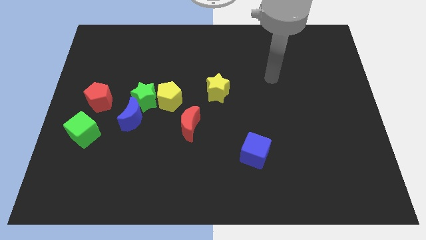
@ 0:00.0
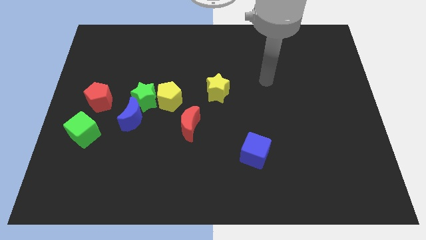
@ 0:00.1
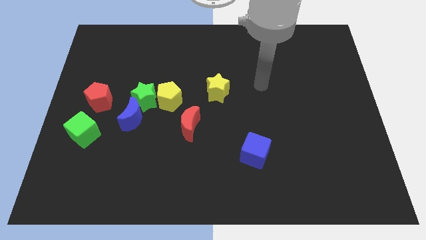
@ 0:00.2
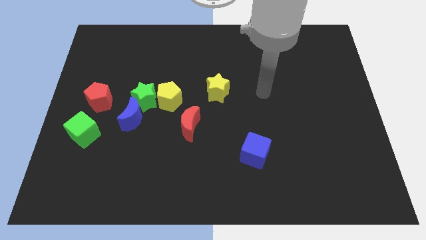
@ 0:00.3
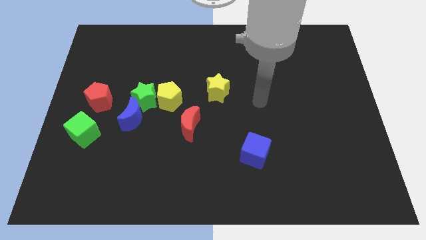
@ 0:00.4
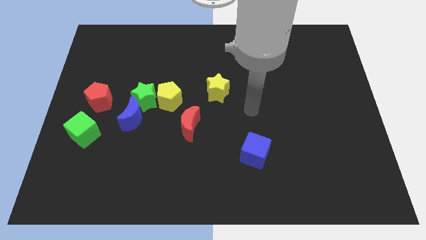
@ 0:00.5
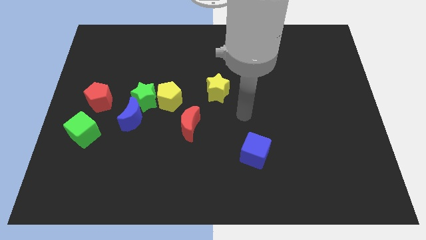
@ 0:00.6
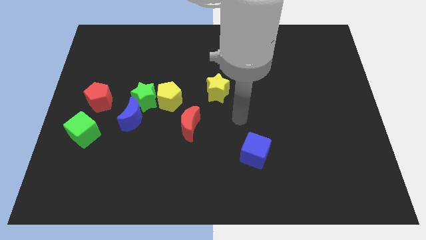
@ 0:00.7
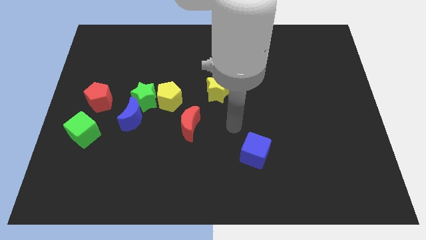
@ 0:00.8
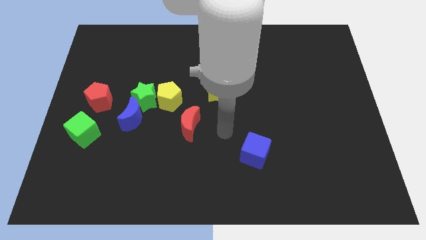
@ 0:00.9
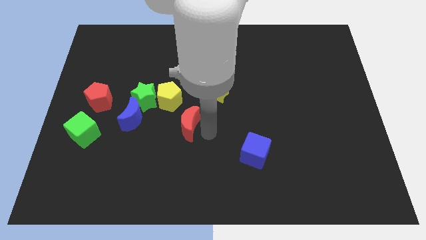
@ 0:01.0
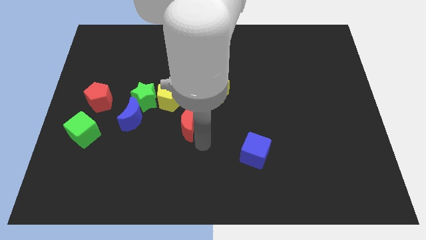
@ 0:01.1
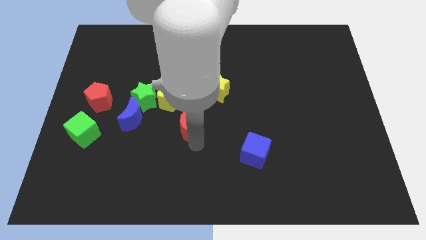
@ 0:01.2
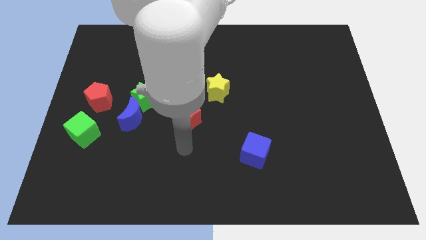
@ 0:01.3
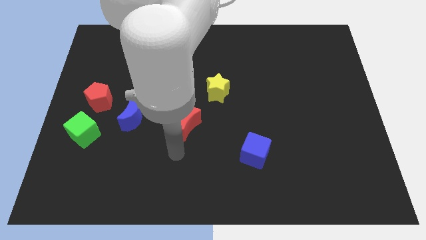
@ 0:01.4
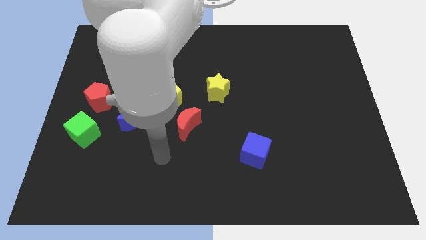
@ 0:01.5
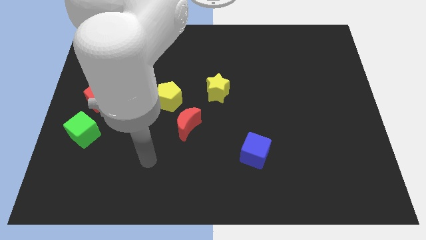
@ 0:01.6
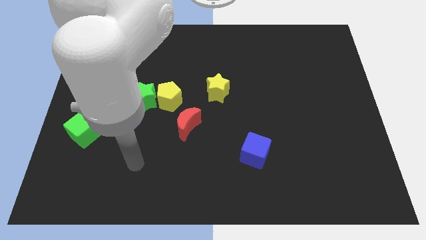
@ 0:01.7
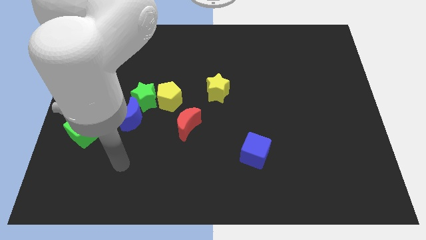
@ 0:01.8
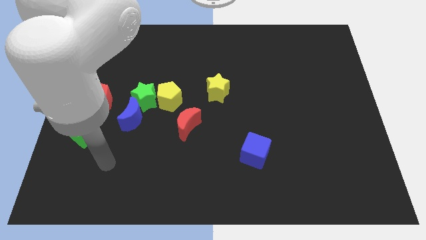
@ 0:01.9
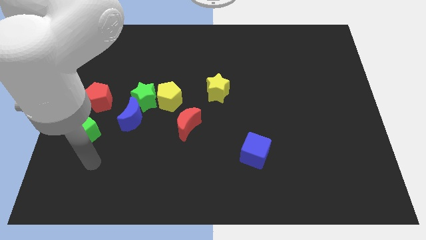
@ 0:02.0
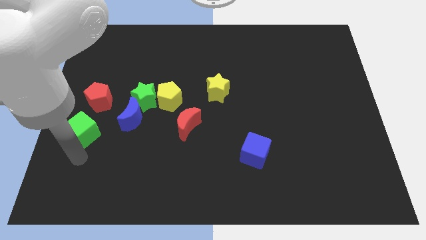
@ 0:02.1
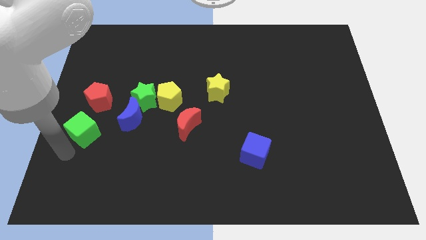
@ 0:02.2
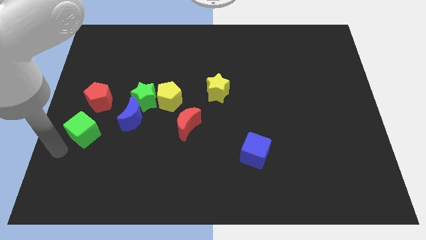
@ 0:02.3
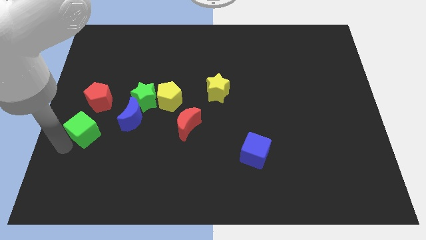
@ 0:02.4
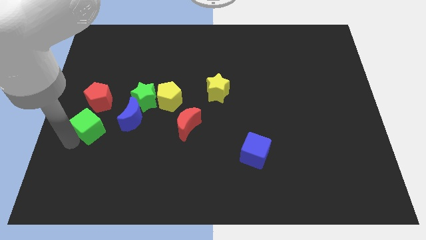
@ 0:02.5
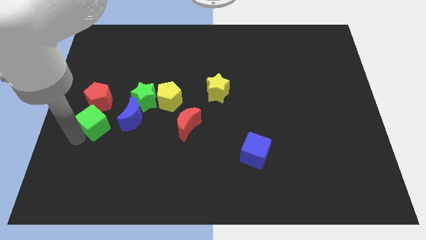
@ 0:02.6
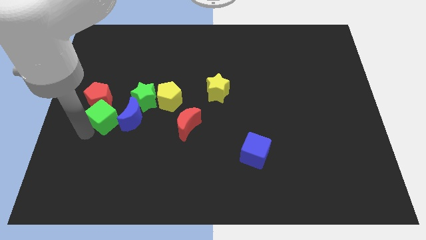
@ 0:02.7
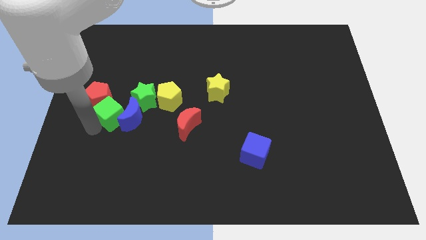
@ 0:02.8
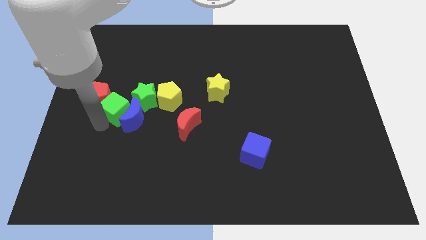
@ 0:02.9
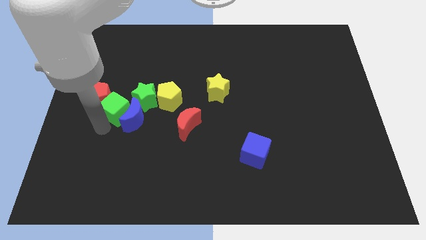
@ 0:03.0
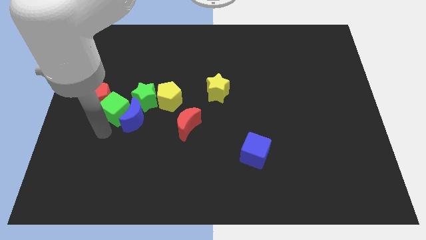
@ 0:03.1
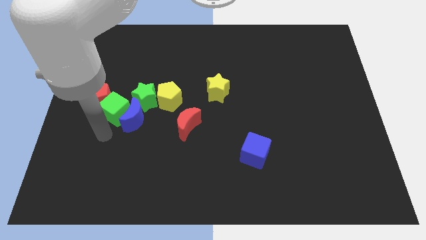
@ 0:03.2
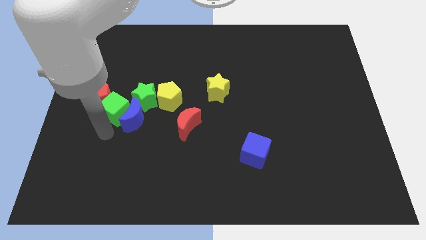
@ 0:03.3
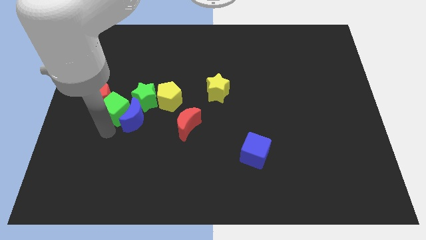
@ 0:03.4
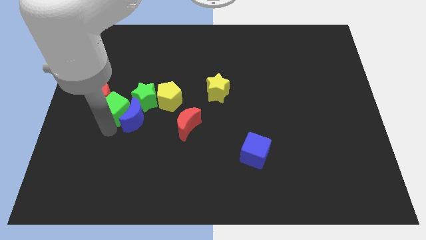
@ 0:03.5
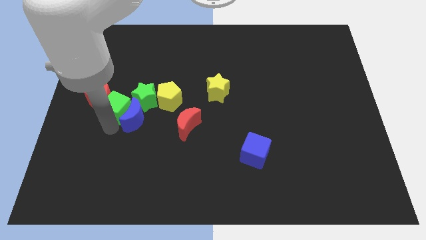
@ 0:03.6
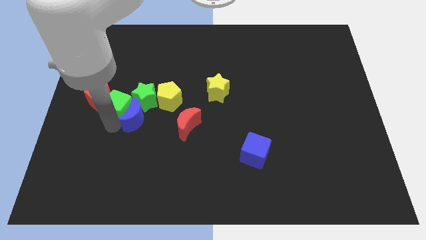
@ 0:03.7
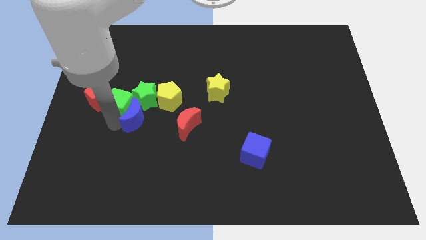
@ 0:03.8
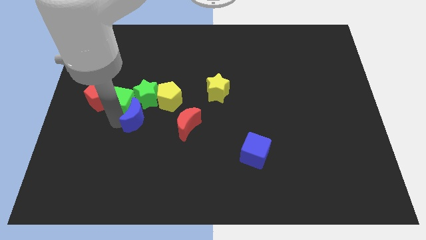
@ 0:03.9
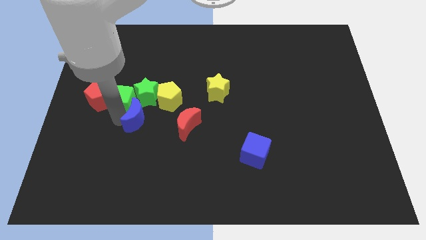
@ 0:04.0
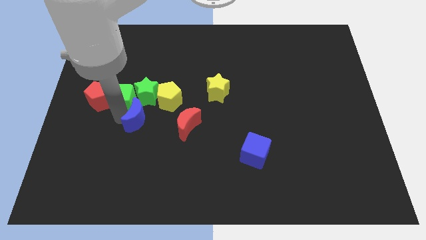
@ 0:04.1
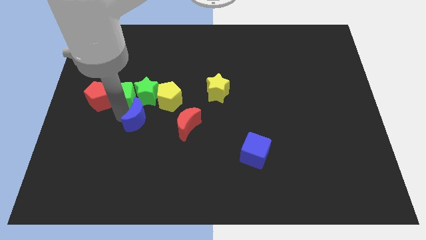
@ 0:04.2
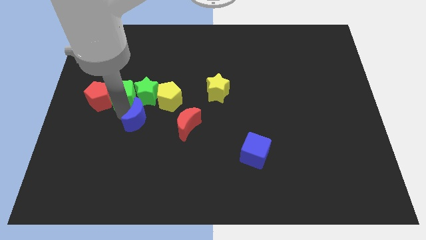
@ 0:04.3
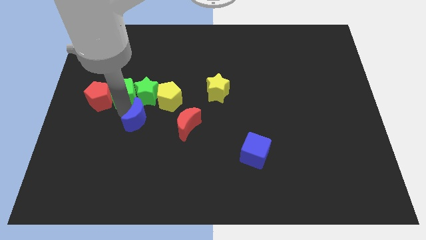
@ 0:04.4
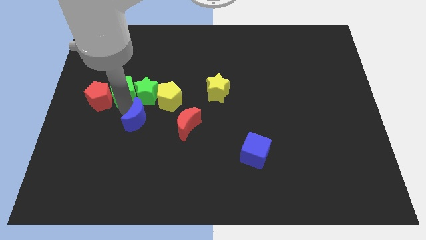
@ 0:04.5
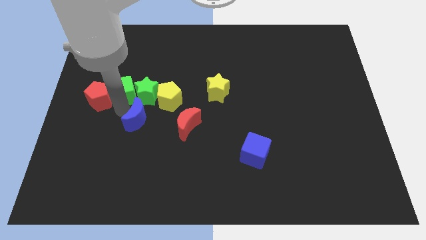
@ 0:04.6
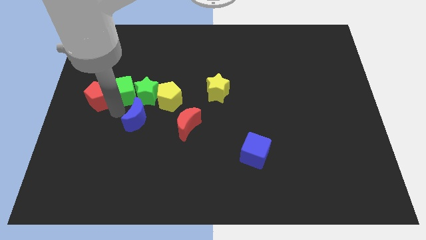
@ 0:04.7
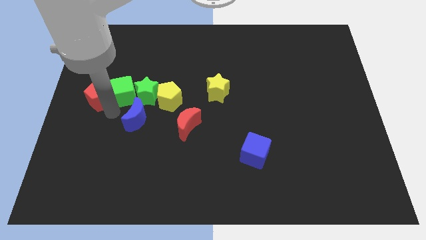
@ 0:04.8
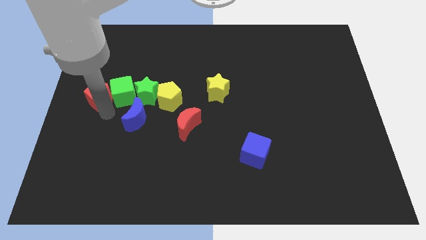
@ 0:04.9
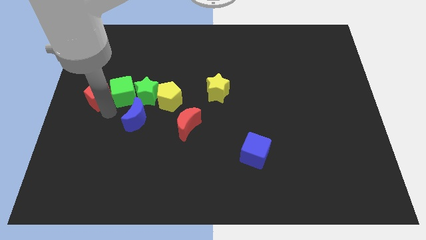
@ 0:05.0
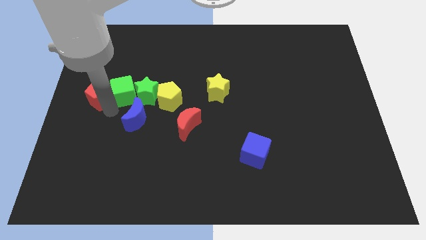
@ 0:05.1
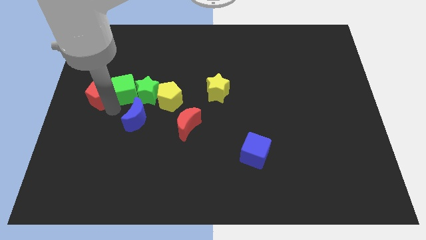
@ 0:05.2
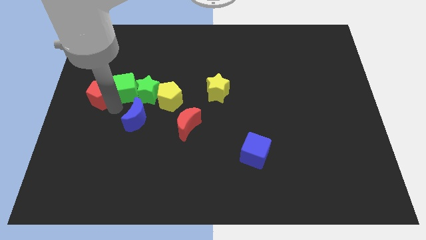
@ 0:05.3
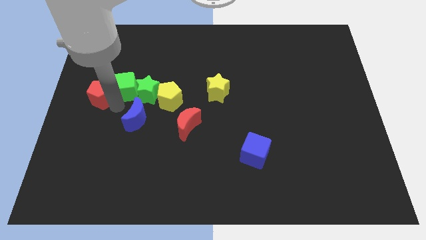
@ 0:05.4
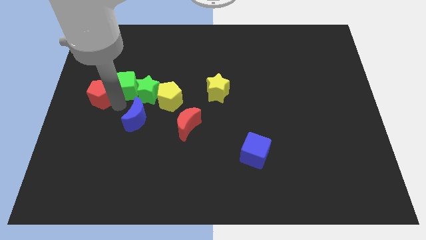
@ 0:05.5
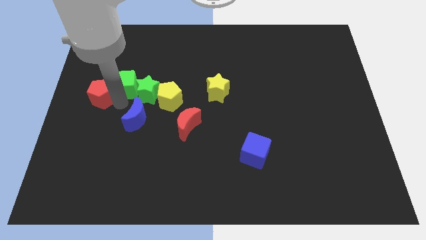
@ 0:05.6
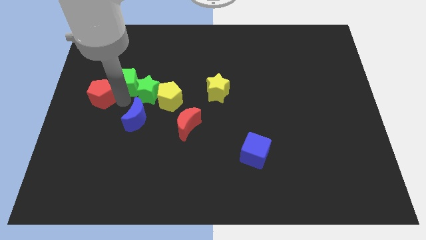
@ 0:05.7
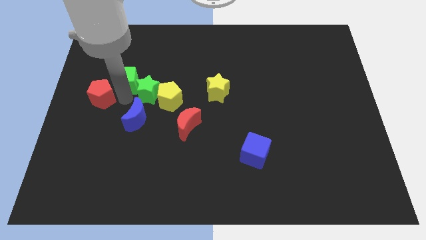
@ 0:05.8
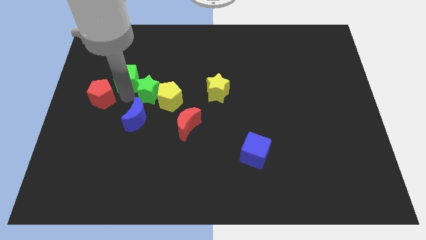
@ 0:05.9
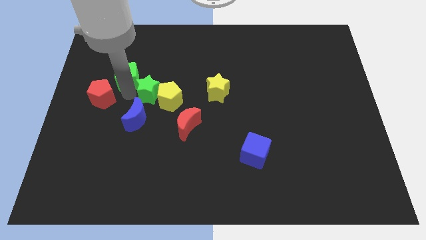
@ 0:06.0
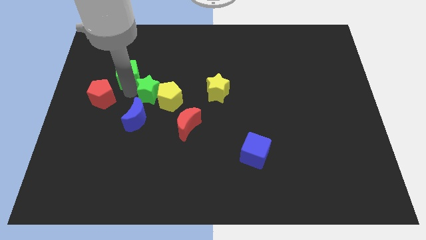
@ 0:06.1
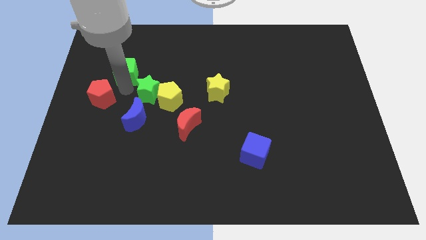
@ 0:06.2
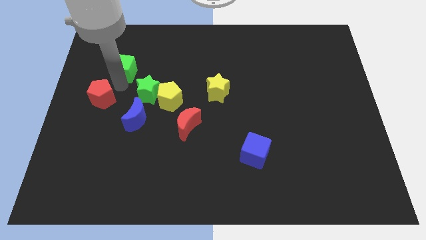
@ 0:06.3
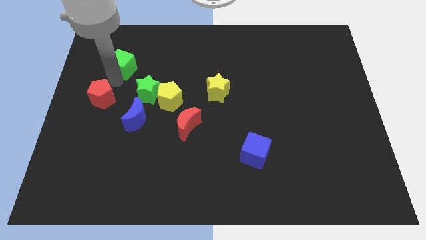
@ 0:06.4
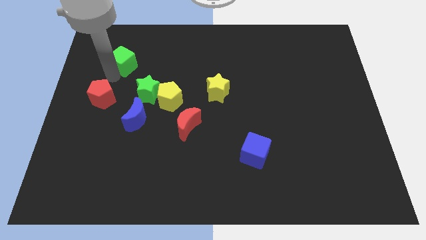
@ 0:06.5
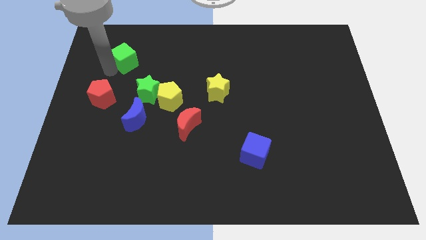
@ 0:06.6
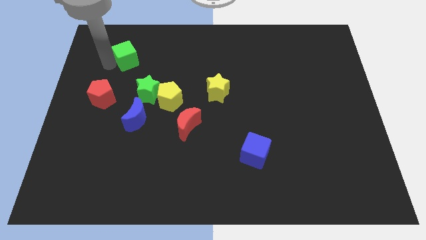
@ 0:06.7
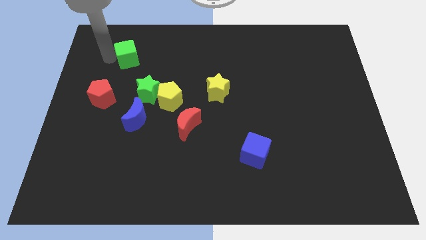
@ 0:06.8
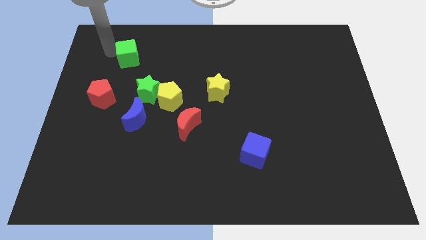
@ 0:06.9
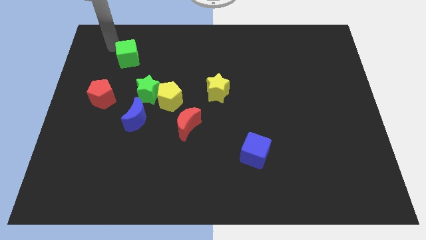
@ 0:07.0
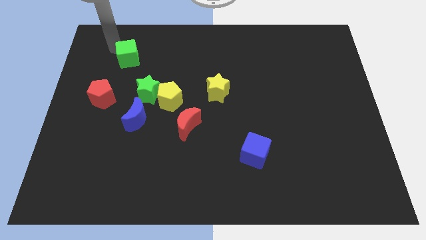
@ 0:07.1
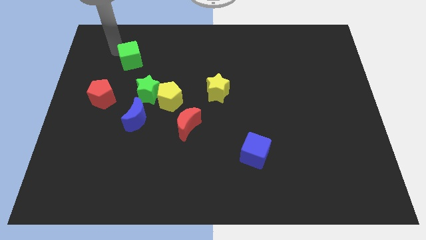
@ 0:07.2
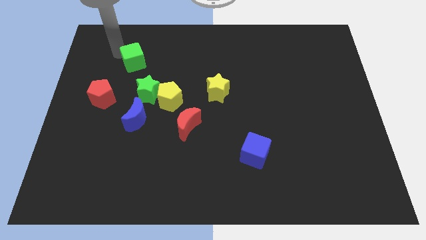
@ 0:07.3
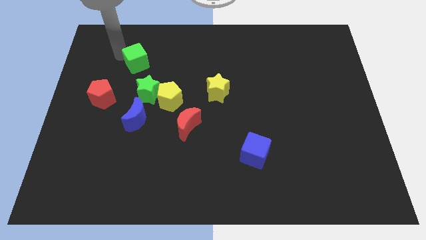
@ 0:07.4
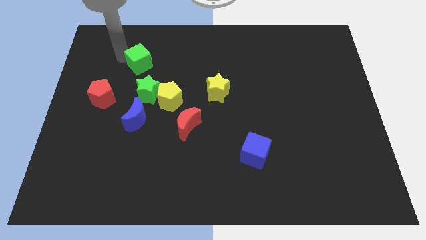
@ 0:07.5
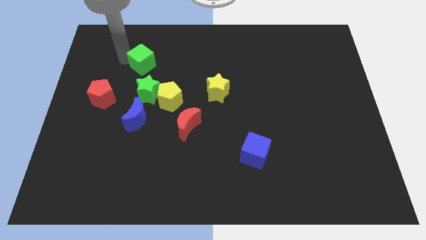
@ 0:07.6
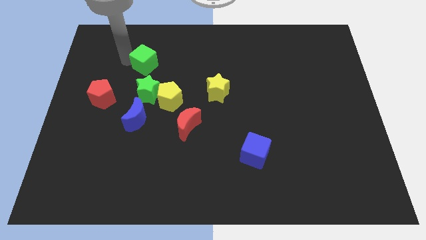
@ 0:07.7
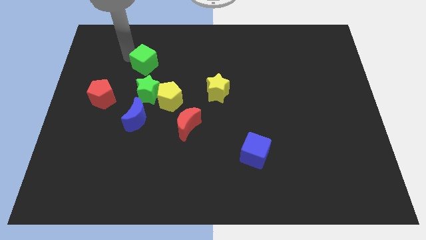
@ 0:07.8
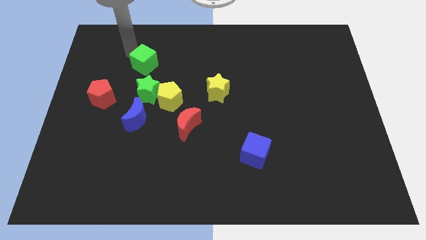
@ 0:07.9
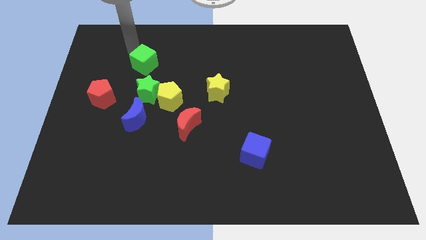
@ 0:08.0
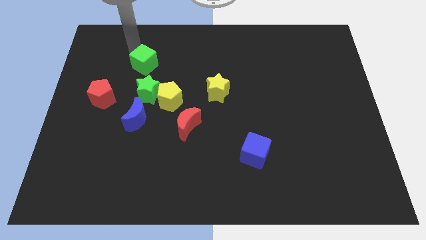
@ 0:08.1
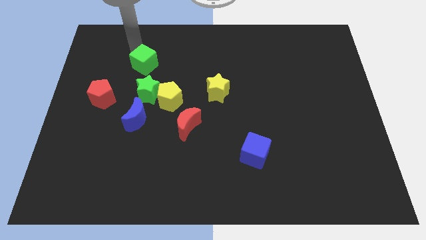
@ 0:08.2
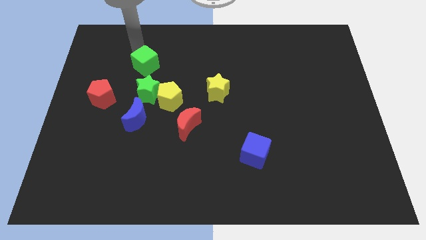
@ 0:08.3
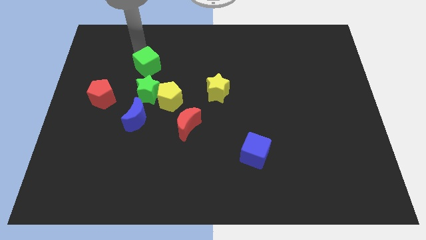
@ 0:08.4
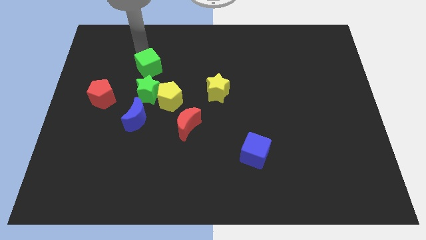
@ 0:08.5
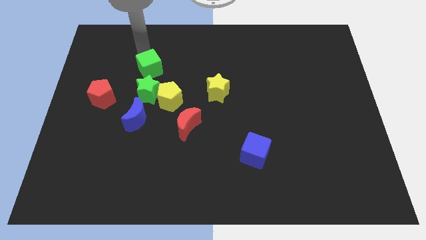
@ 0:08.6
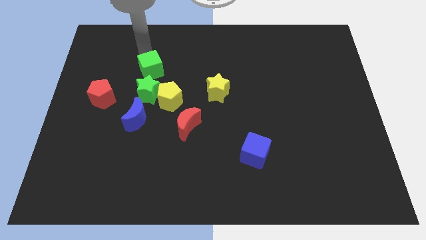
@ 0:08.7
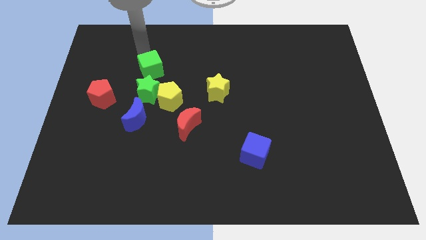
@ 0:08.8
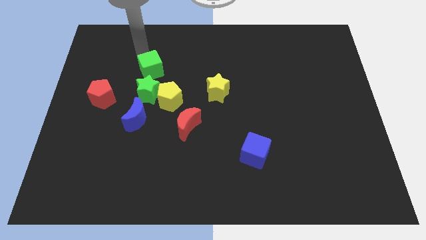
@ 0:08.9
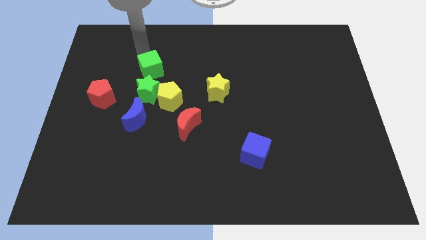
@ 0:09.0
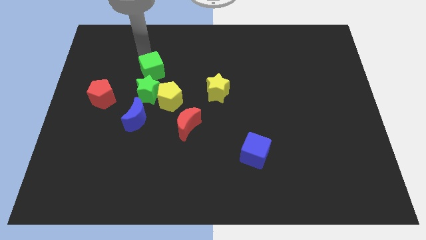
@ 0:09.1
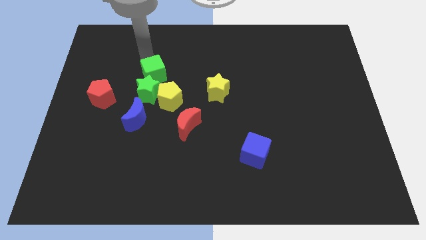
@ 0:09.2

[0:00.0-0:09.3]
put the green cube to the top side of the yellow pentagon
